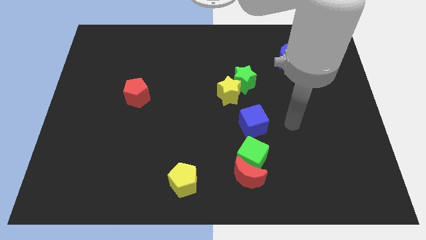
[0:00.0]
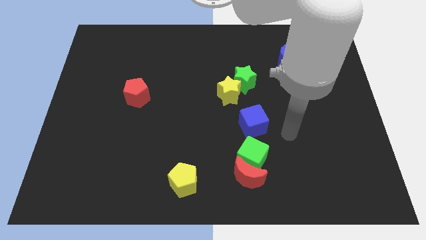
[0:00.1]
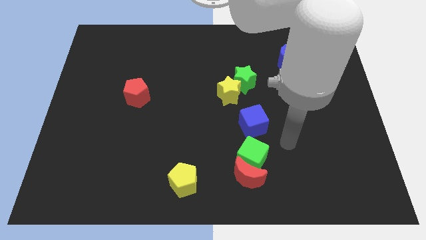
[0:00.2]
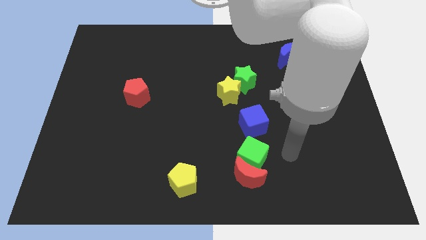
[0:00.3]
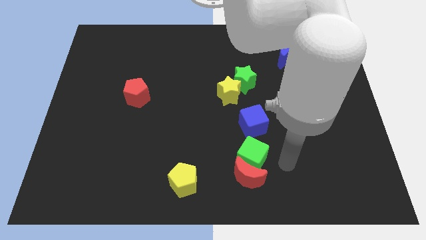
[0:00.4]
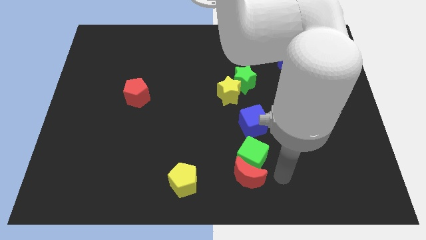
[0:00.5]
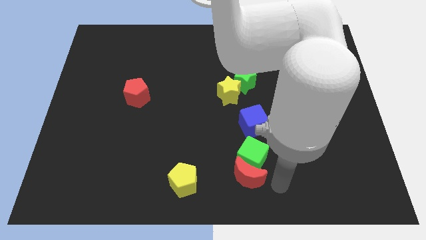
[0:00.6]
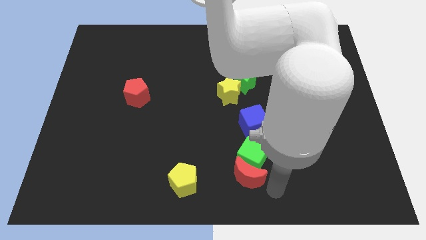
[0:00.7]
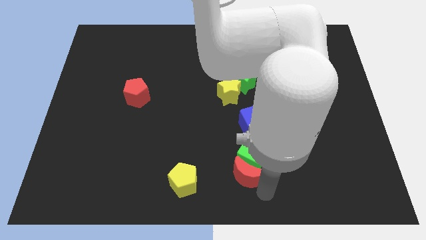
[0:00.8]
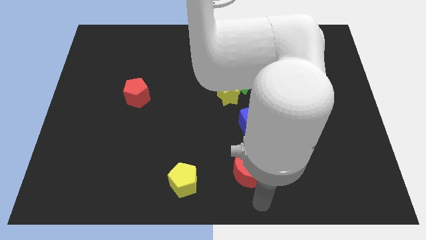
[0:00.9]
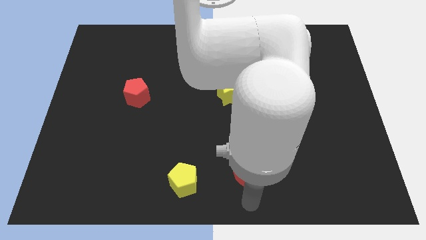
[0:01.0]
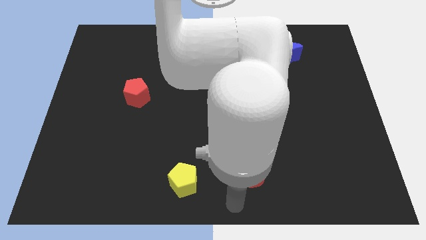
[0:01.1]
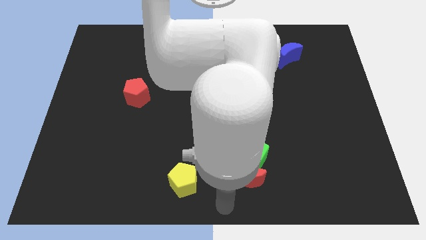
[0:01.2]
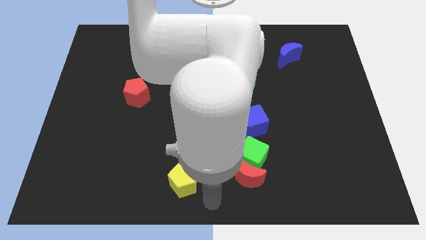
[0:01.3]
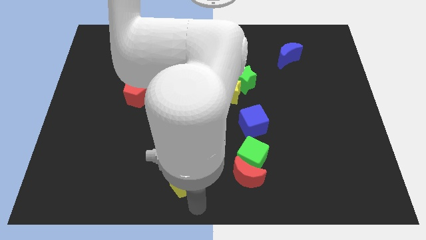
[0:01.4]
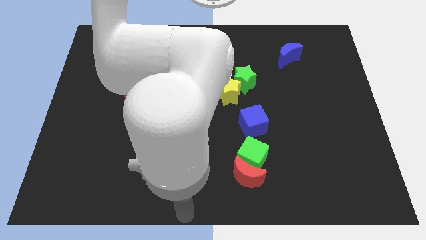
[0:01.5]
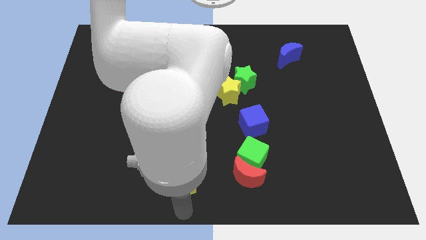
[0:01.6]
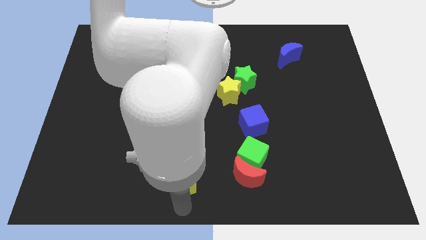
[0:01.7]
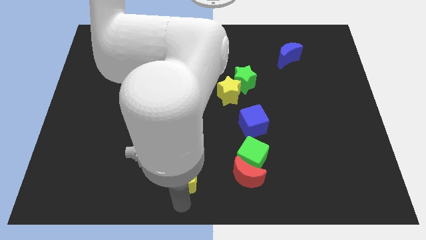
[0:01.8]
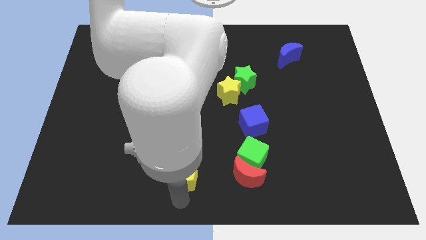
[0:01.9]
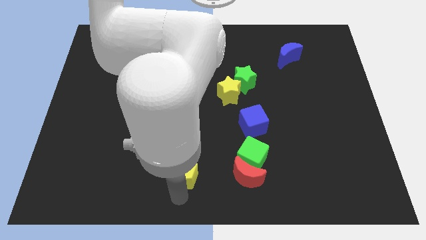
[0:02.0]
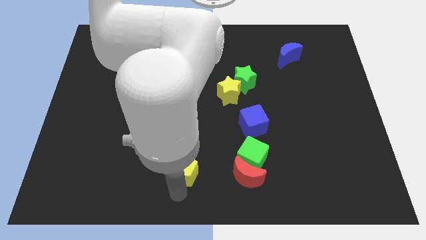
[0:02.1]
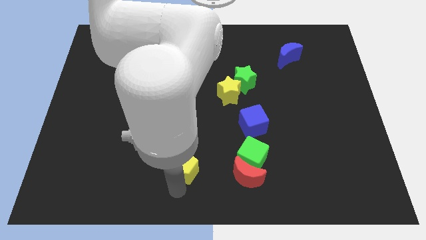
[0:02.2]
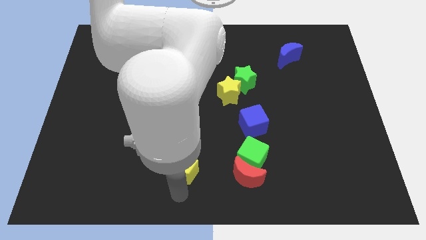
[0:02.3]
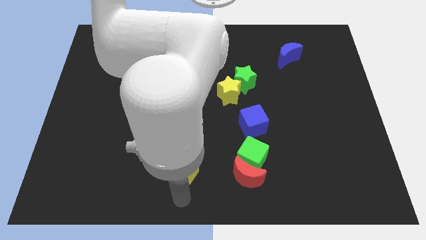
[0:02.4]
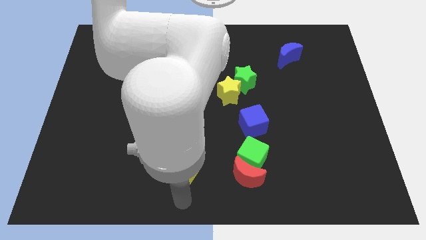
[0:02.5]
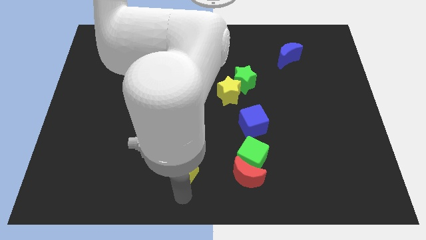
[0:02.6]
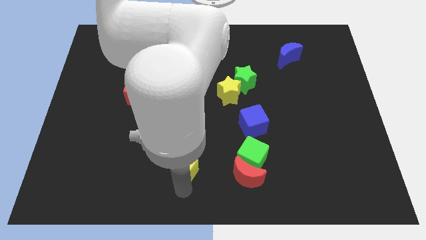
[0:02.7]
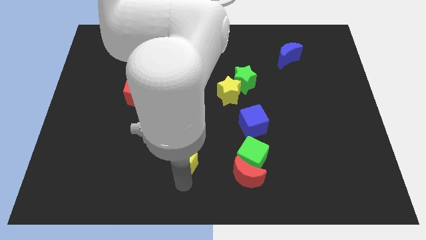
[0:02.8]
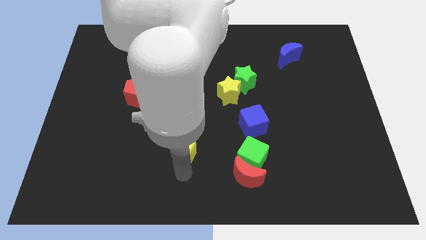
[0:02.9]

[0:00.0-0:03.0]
move the yellow pentagon upwards a little bit

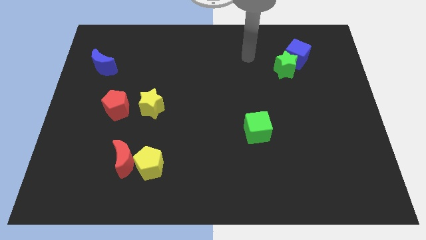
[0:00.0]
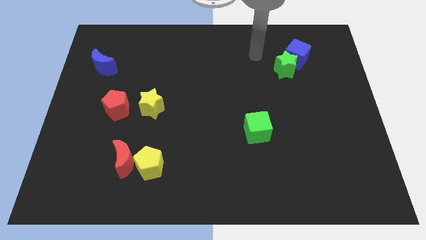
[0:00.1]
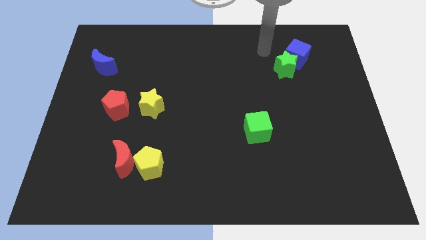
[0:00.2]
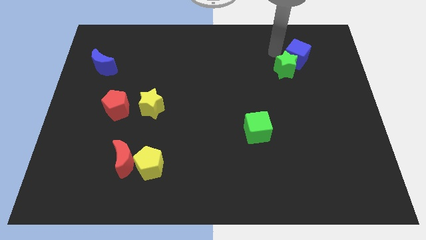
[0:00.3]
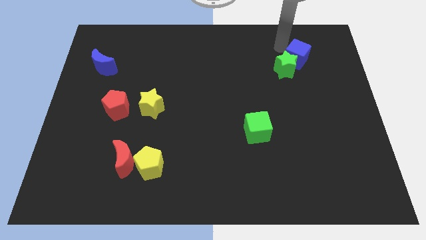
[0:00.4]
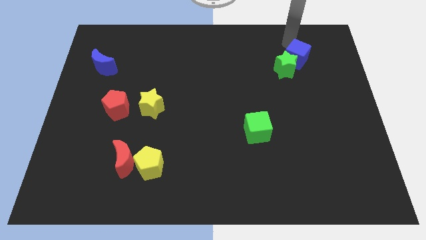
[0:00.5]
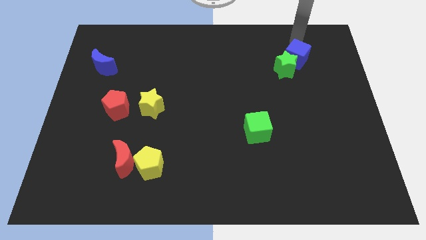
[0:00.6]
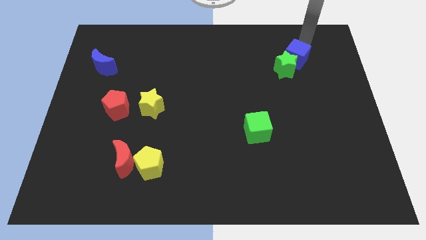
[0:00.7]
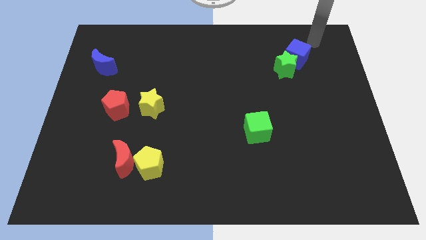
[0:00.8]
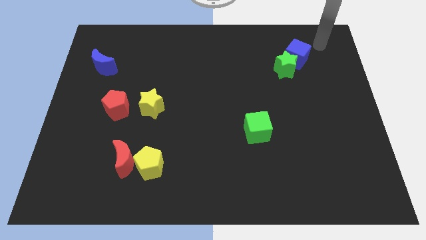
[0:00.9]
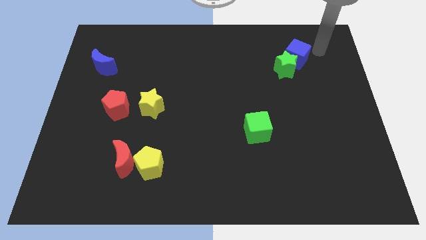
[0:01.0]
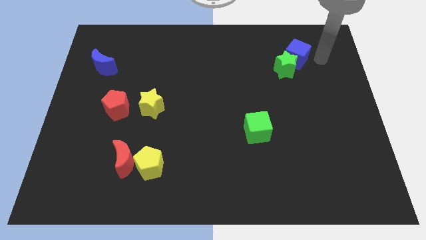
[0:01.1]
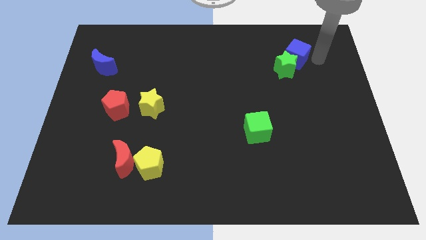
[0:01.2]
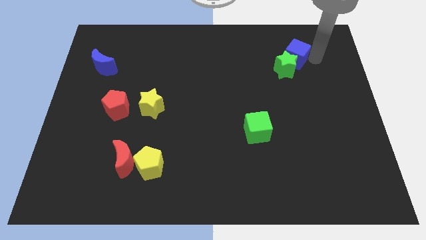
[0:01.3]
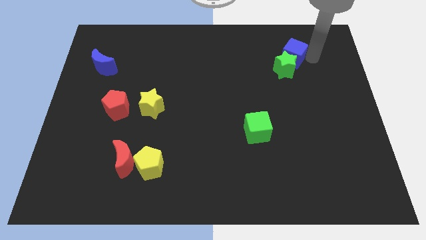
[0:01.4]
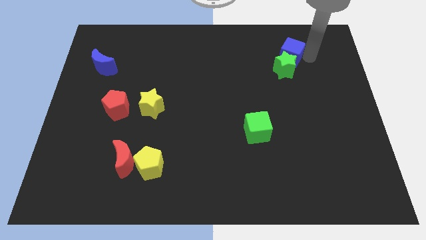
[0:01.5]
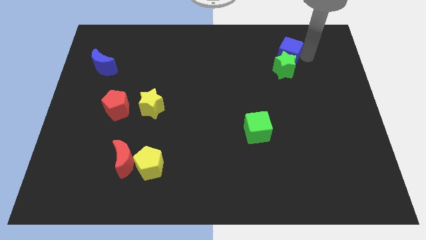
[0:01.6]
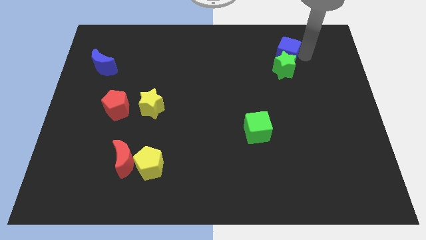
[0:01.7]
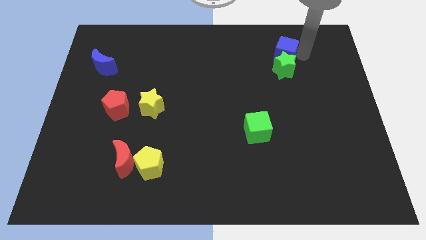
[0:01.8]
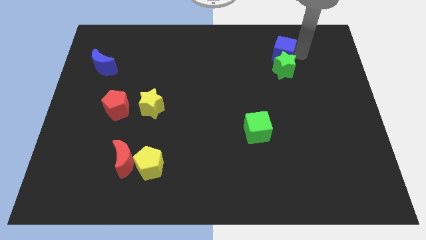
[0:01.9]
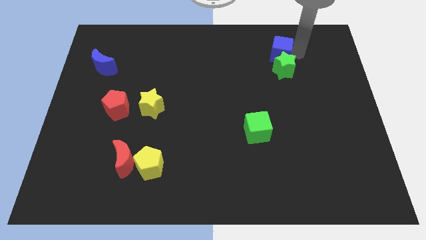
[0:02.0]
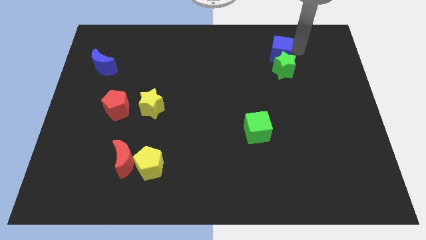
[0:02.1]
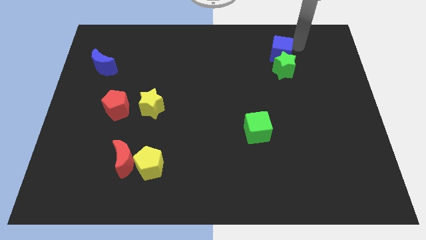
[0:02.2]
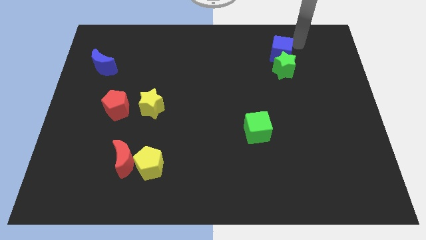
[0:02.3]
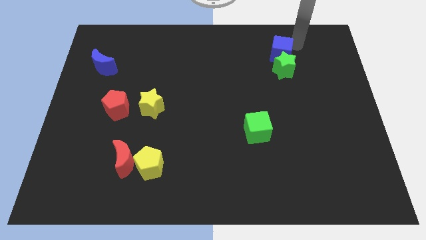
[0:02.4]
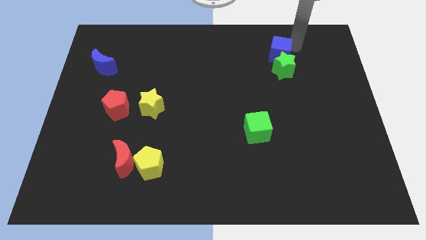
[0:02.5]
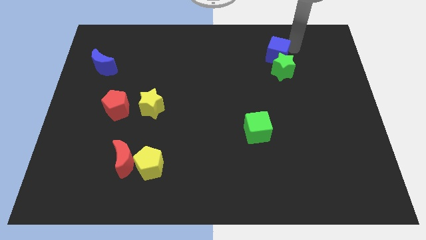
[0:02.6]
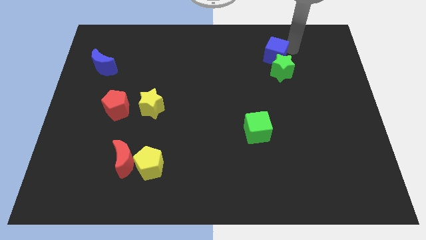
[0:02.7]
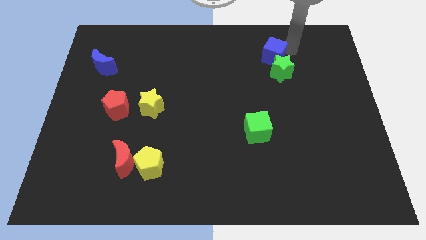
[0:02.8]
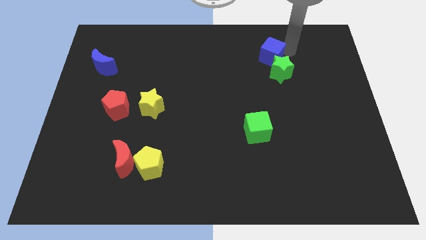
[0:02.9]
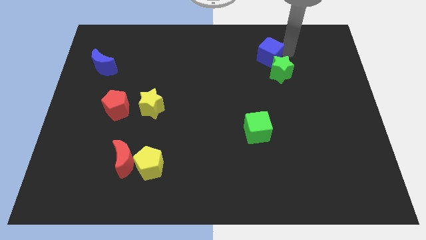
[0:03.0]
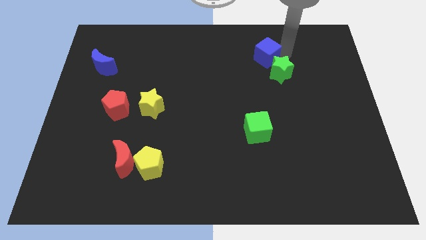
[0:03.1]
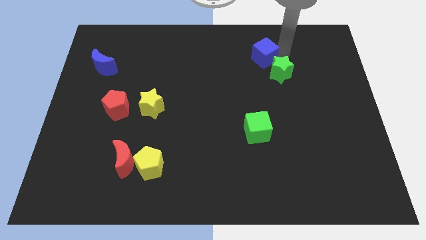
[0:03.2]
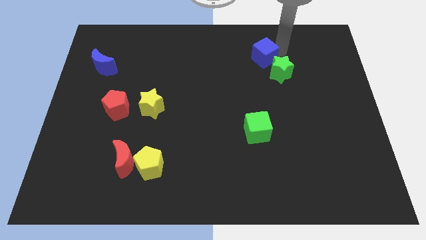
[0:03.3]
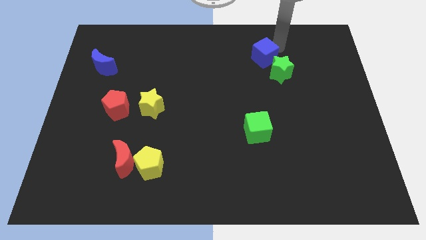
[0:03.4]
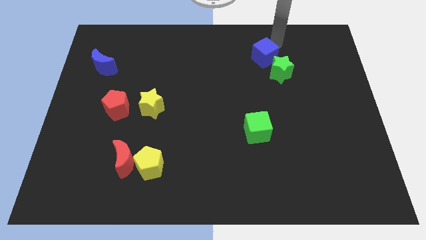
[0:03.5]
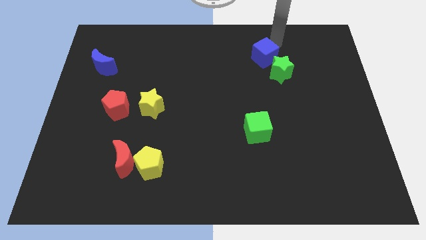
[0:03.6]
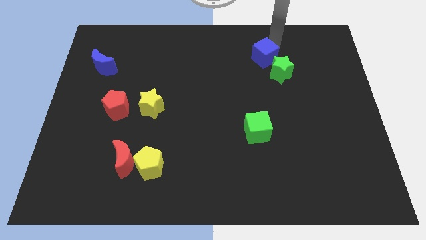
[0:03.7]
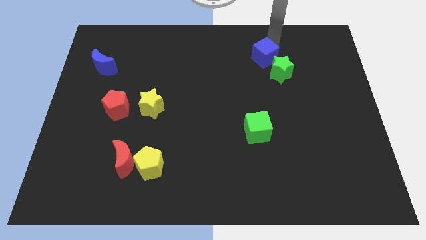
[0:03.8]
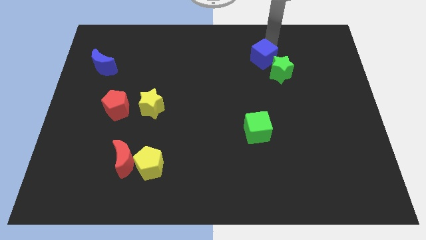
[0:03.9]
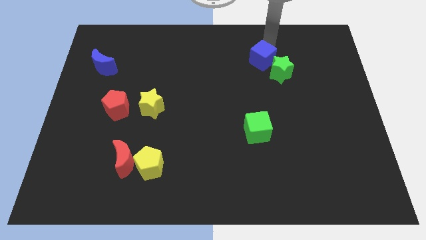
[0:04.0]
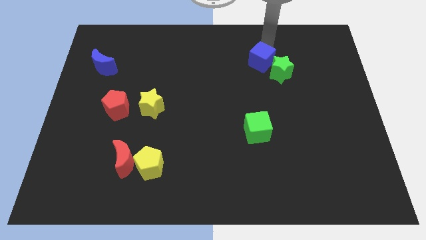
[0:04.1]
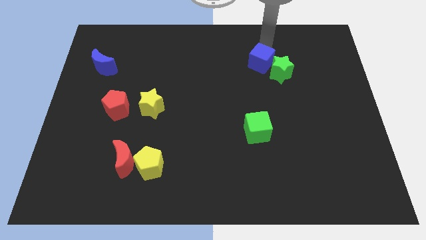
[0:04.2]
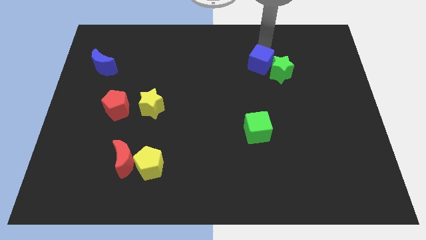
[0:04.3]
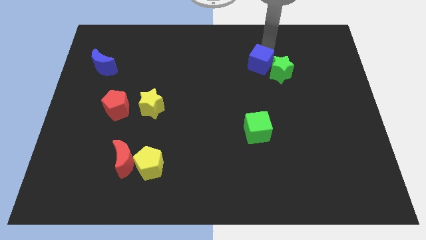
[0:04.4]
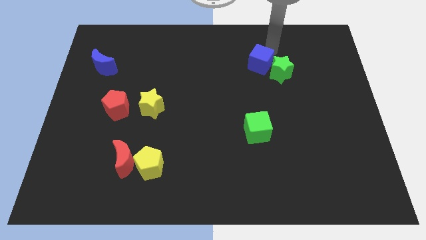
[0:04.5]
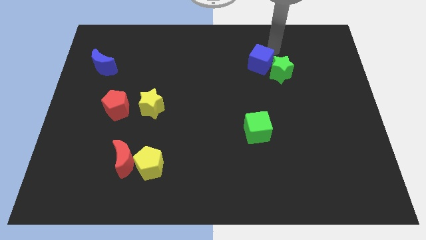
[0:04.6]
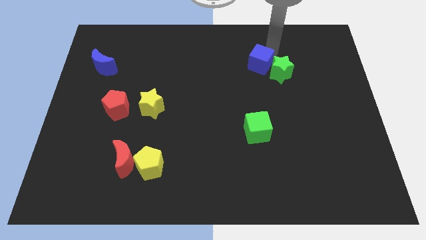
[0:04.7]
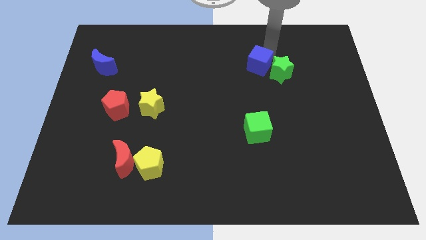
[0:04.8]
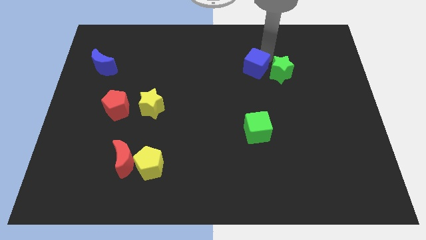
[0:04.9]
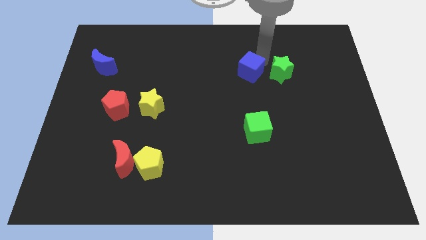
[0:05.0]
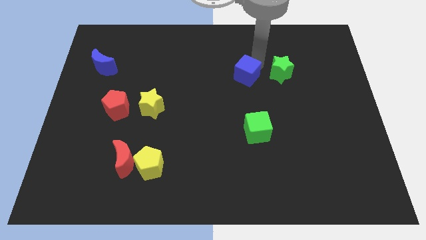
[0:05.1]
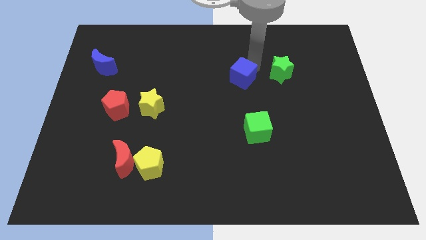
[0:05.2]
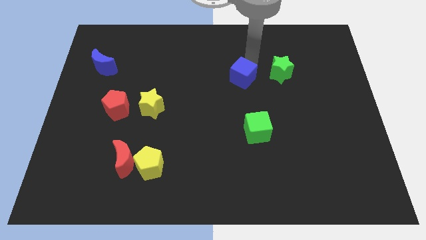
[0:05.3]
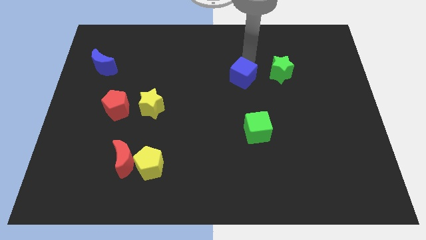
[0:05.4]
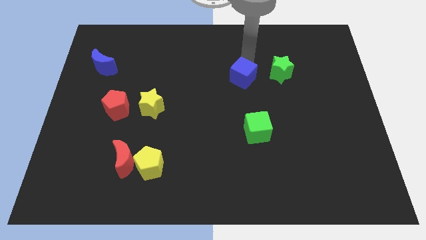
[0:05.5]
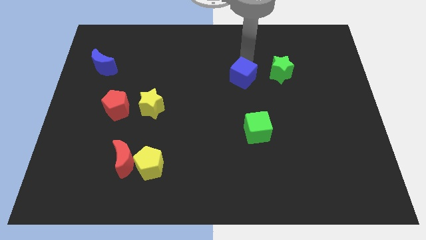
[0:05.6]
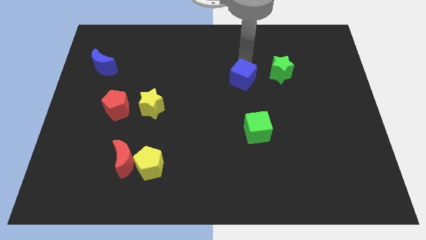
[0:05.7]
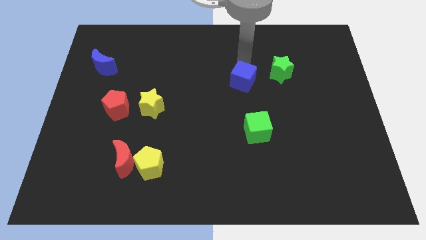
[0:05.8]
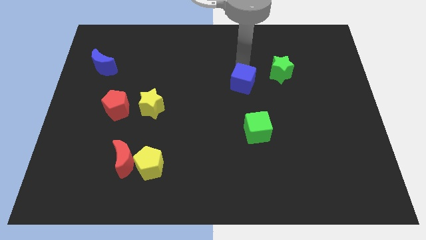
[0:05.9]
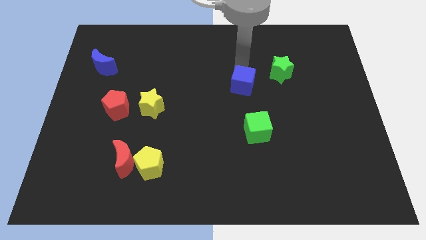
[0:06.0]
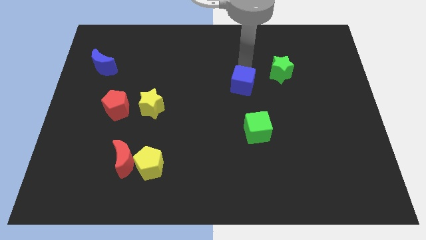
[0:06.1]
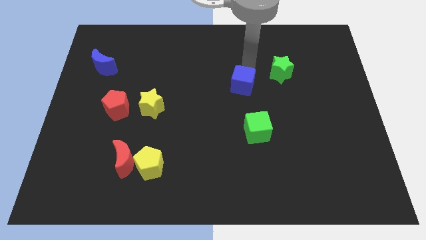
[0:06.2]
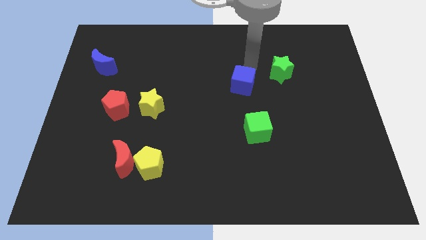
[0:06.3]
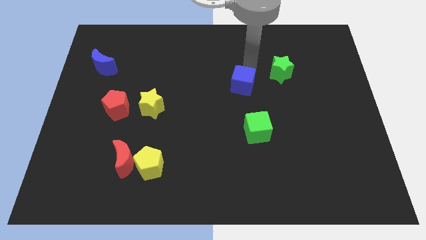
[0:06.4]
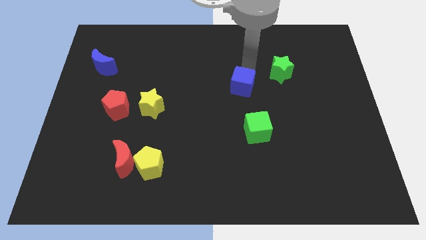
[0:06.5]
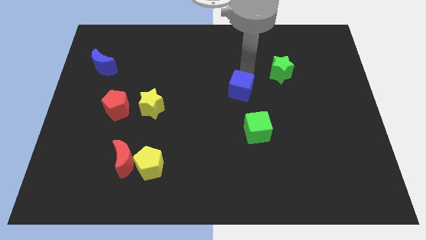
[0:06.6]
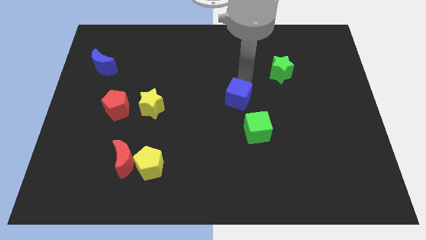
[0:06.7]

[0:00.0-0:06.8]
push the blue cube downwards and then left
